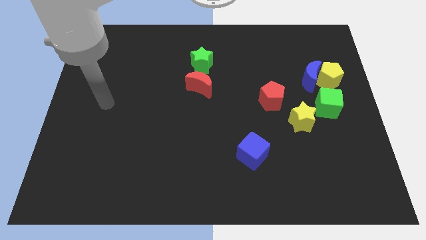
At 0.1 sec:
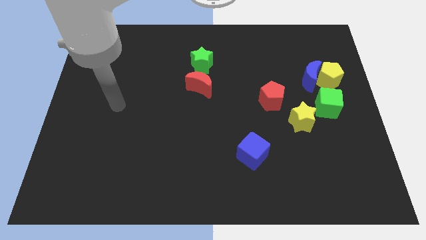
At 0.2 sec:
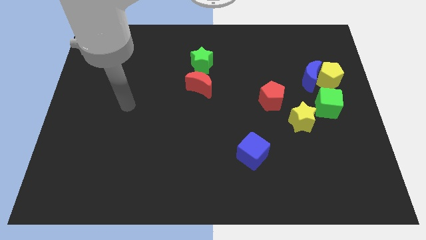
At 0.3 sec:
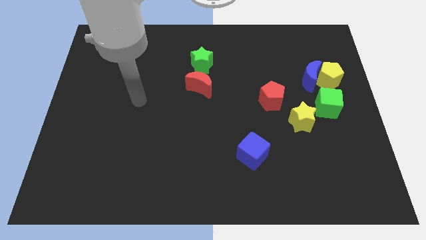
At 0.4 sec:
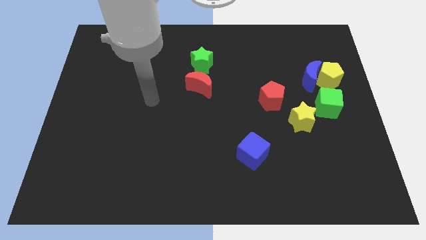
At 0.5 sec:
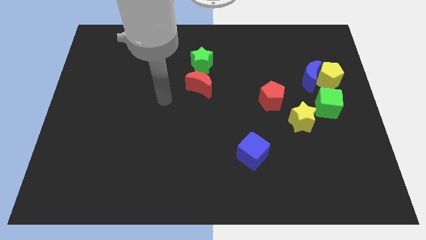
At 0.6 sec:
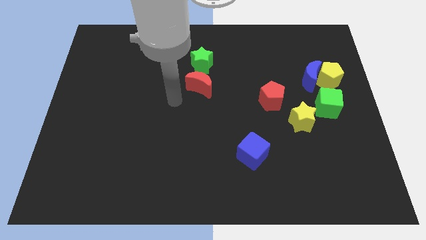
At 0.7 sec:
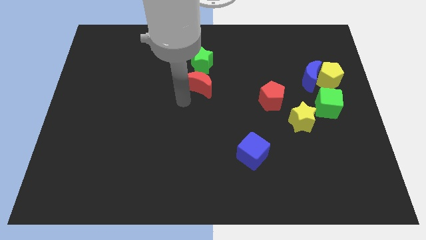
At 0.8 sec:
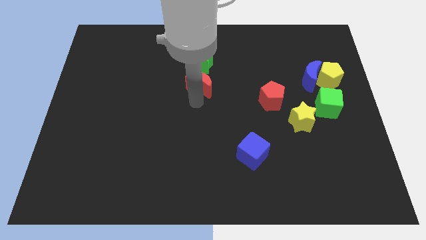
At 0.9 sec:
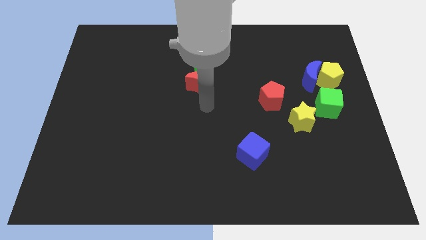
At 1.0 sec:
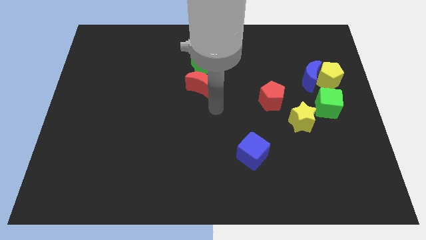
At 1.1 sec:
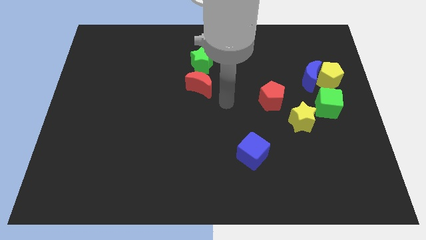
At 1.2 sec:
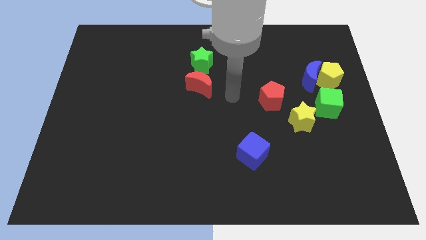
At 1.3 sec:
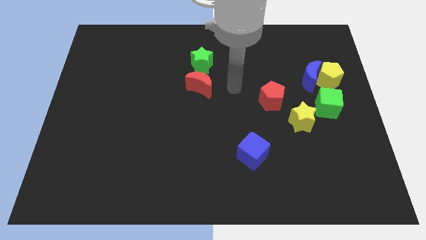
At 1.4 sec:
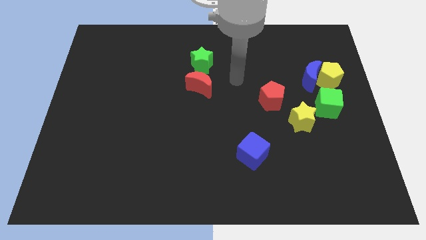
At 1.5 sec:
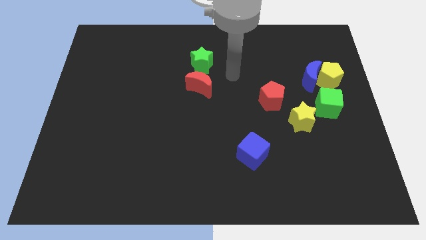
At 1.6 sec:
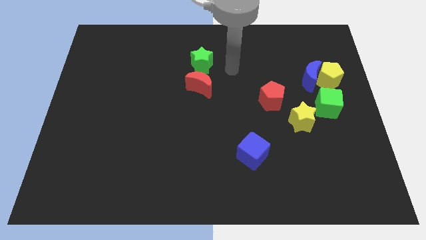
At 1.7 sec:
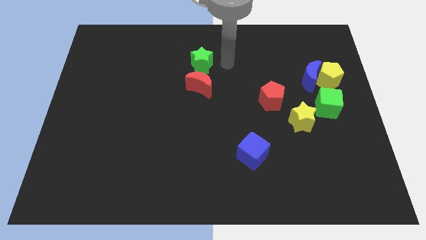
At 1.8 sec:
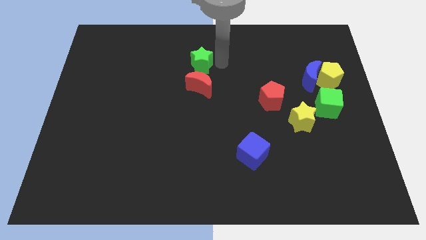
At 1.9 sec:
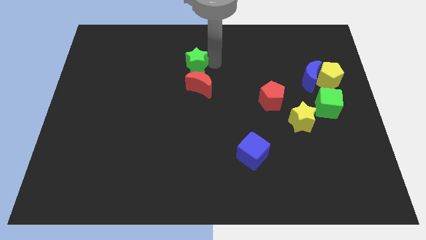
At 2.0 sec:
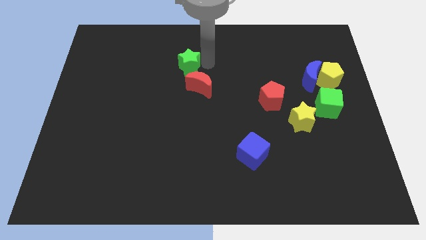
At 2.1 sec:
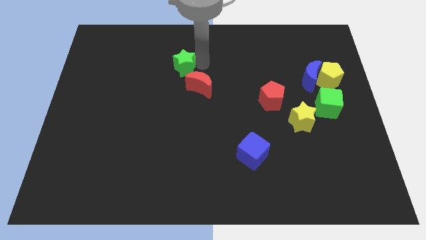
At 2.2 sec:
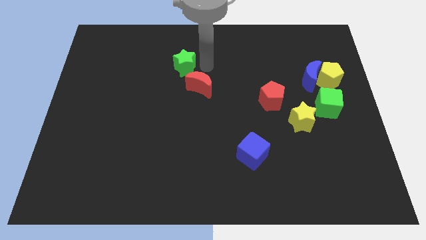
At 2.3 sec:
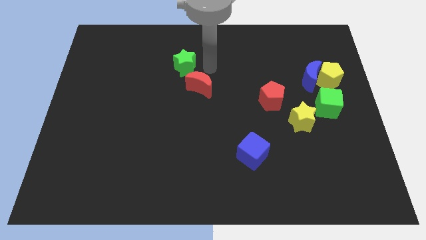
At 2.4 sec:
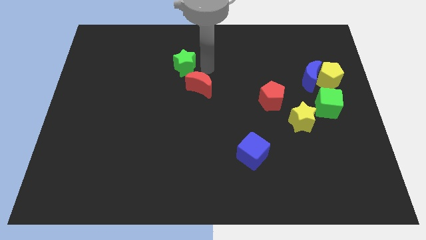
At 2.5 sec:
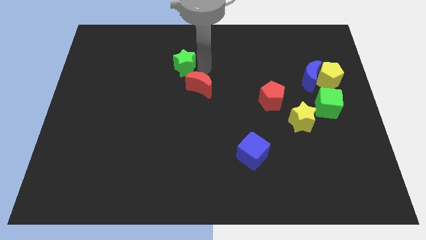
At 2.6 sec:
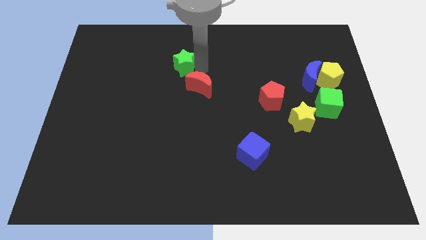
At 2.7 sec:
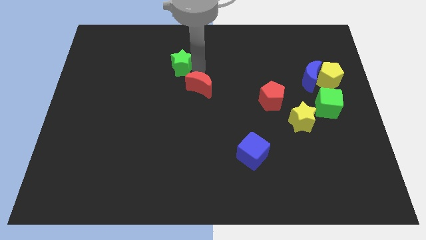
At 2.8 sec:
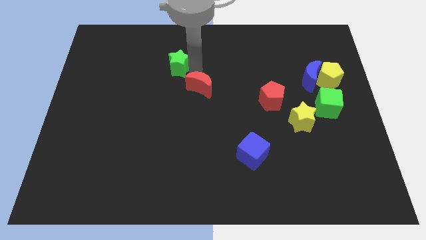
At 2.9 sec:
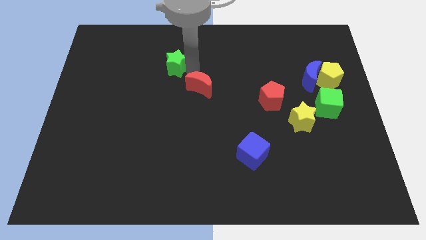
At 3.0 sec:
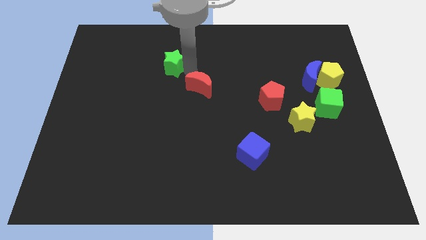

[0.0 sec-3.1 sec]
move the green star left slightly

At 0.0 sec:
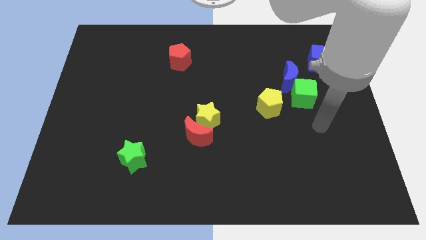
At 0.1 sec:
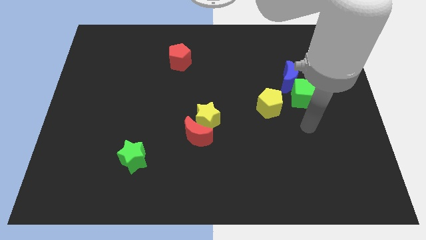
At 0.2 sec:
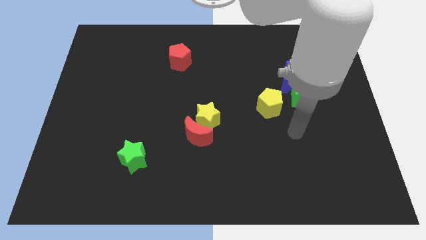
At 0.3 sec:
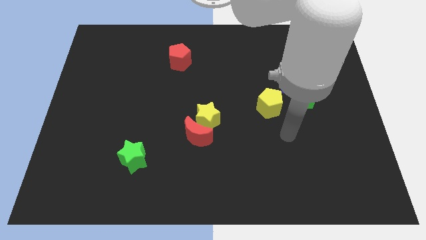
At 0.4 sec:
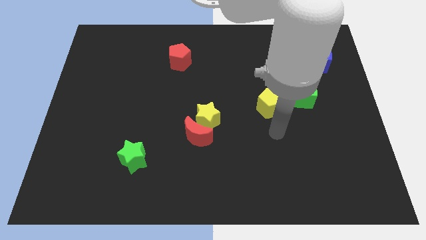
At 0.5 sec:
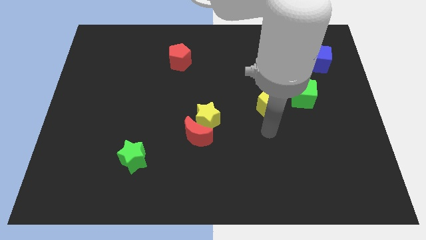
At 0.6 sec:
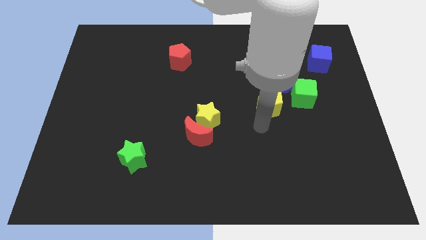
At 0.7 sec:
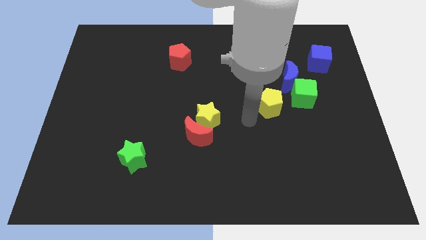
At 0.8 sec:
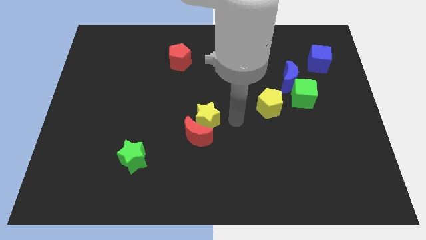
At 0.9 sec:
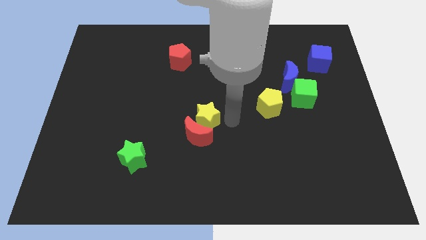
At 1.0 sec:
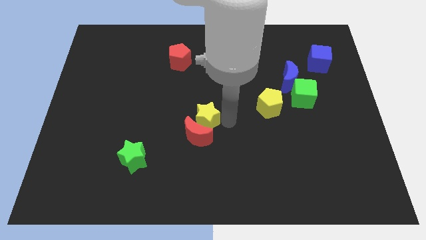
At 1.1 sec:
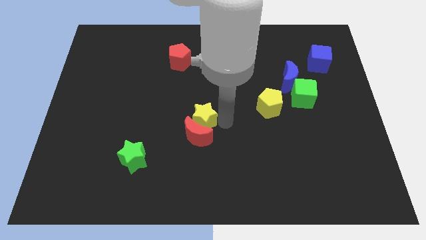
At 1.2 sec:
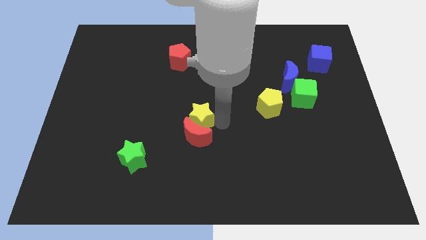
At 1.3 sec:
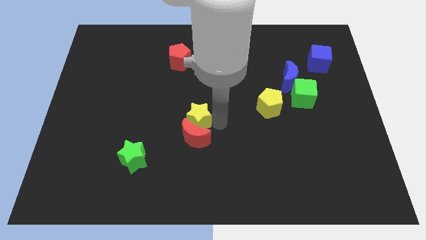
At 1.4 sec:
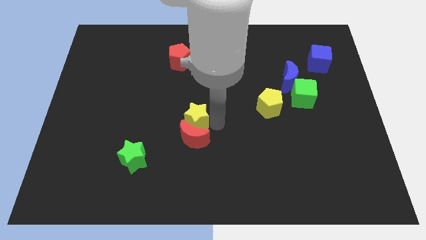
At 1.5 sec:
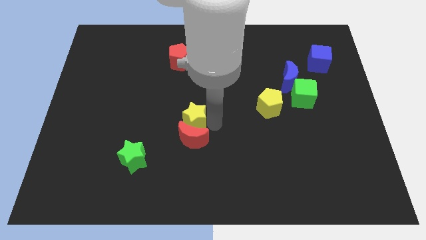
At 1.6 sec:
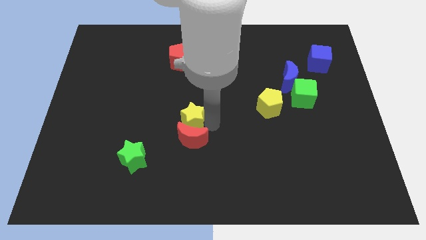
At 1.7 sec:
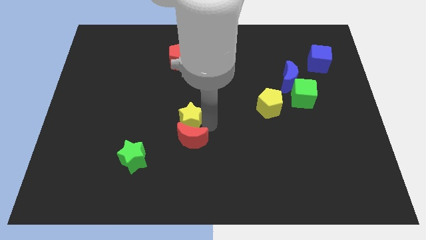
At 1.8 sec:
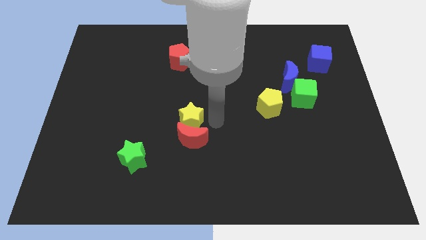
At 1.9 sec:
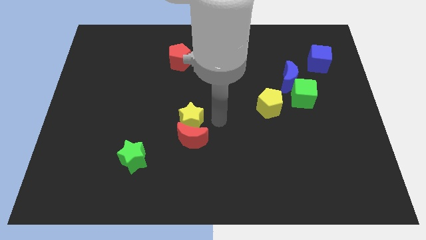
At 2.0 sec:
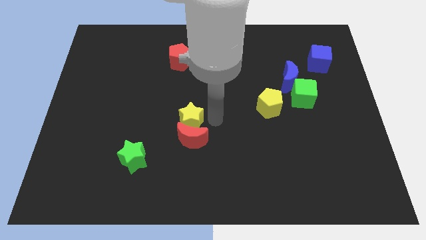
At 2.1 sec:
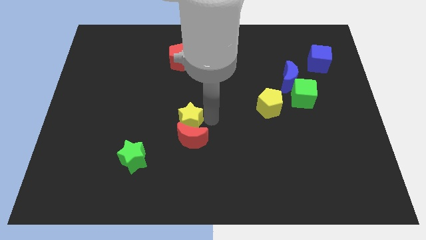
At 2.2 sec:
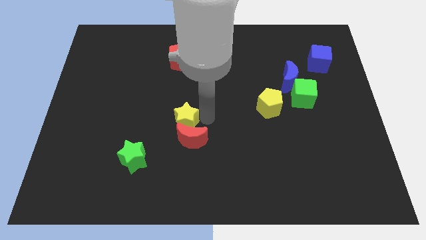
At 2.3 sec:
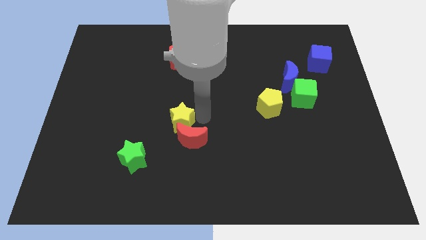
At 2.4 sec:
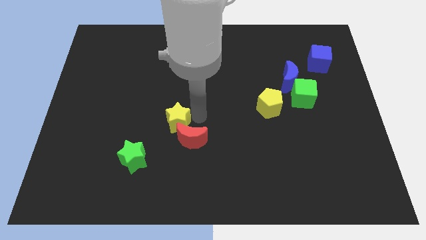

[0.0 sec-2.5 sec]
slide the yellow star a little bit left

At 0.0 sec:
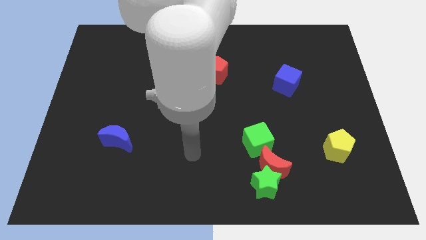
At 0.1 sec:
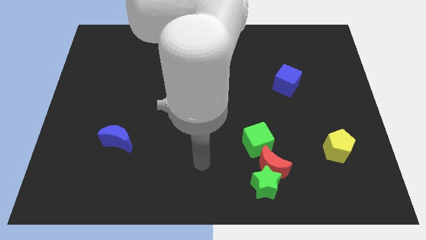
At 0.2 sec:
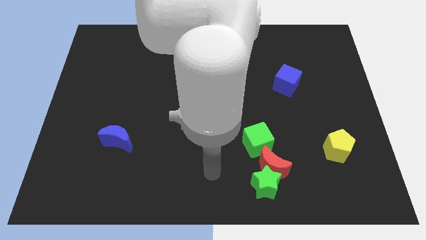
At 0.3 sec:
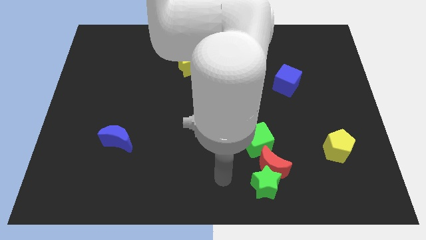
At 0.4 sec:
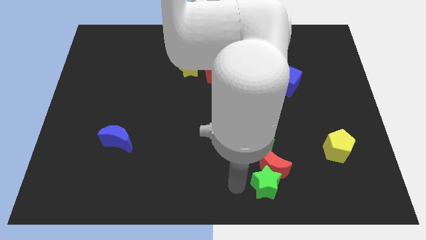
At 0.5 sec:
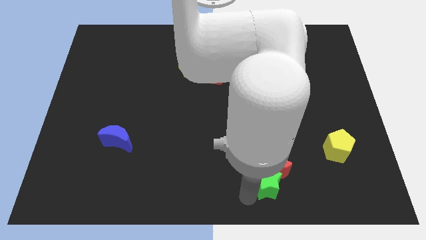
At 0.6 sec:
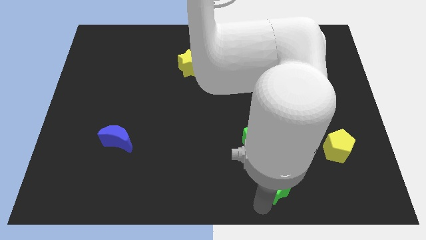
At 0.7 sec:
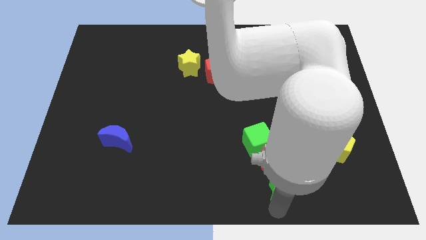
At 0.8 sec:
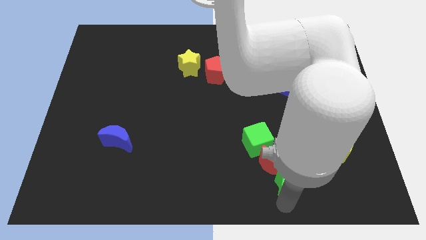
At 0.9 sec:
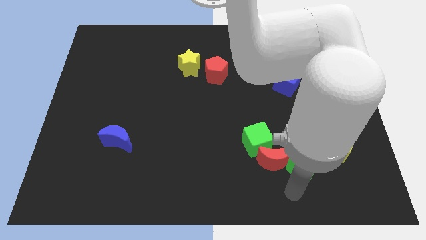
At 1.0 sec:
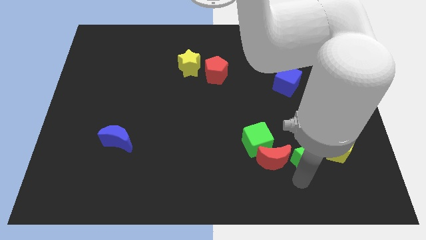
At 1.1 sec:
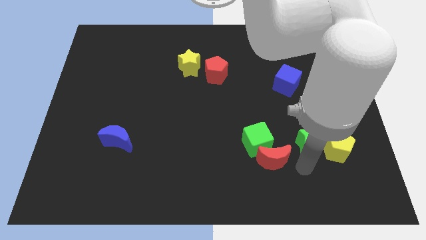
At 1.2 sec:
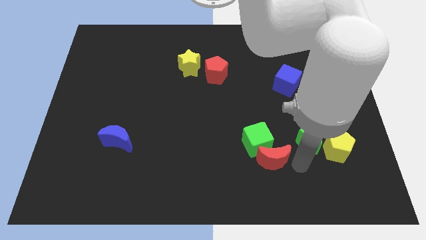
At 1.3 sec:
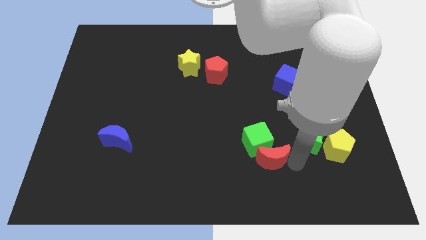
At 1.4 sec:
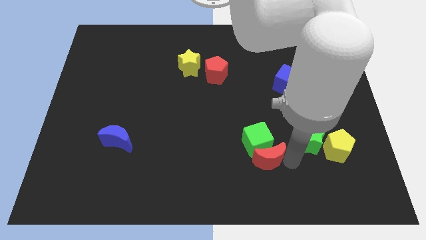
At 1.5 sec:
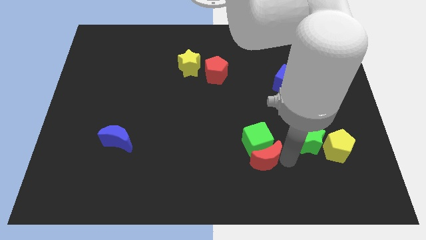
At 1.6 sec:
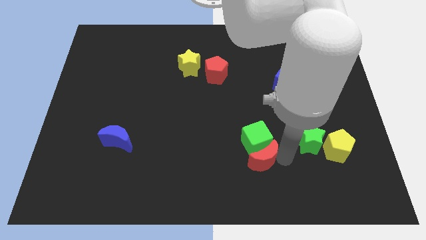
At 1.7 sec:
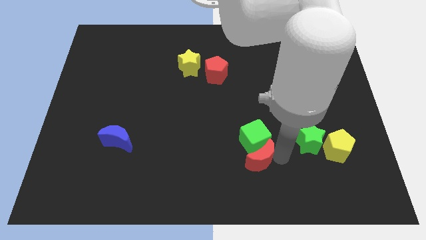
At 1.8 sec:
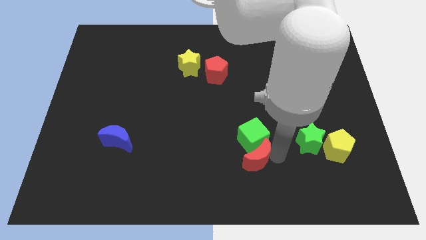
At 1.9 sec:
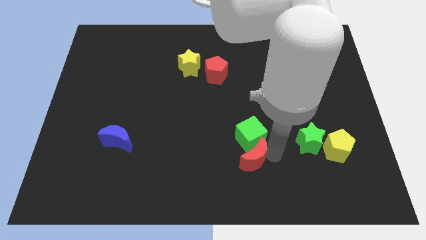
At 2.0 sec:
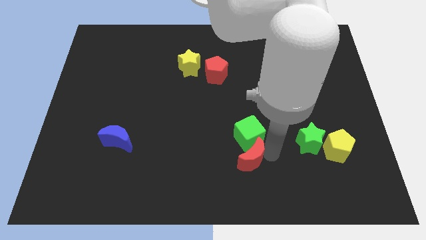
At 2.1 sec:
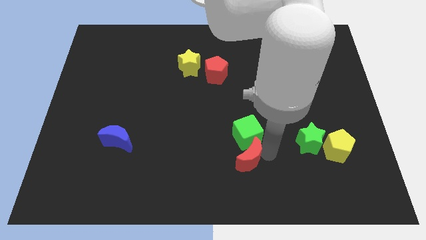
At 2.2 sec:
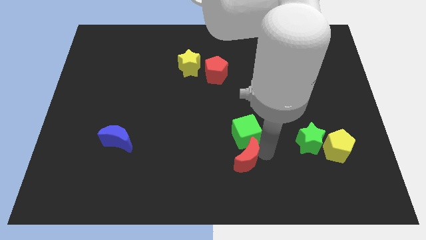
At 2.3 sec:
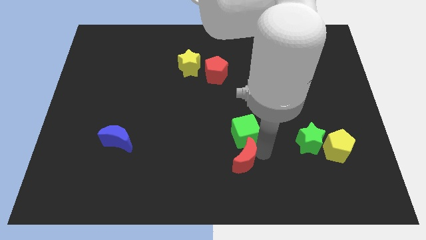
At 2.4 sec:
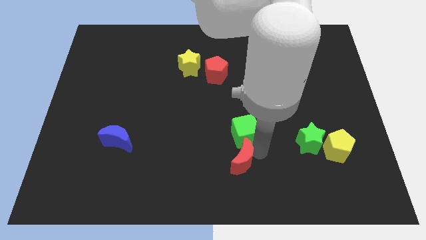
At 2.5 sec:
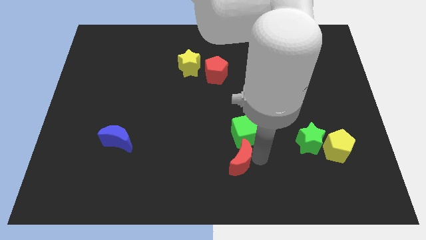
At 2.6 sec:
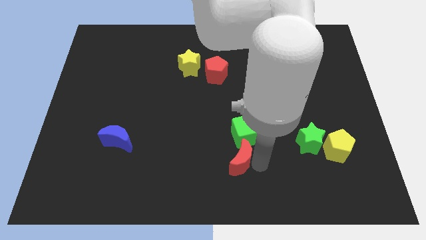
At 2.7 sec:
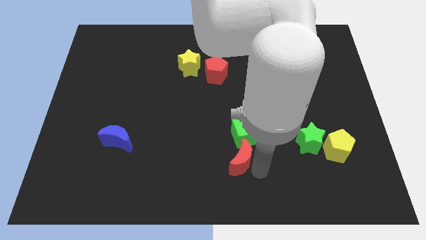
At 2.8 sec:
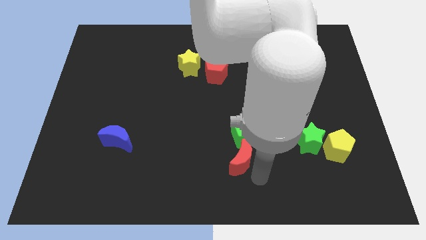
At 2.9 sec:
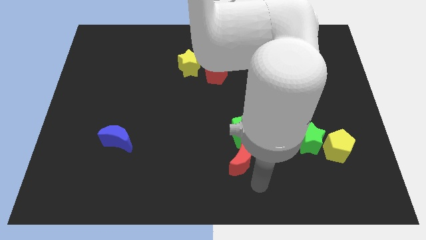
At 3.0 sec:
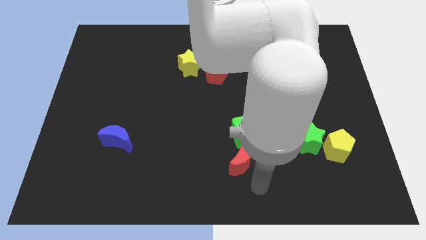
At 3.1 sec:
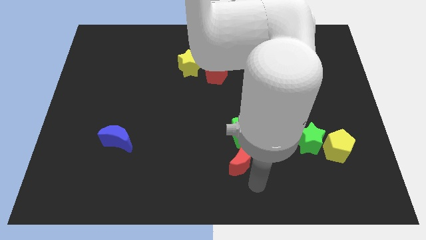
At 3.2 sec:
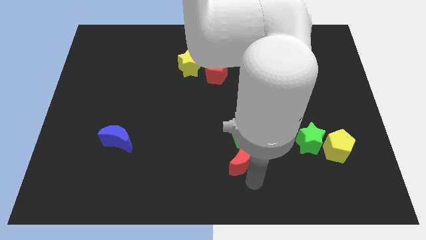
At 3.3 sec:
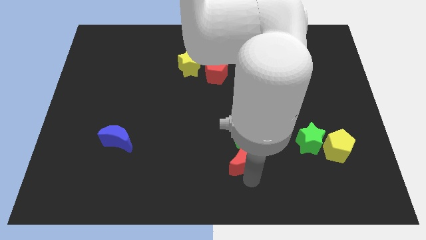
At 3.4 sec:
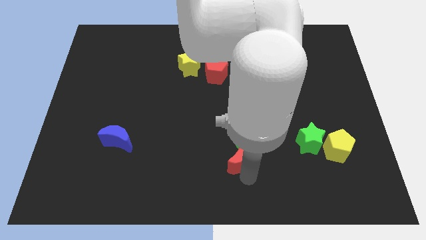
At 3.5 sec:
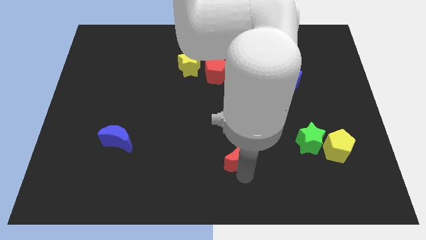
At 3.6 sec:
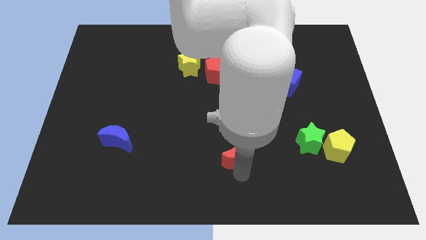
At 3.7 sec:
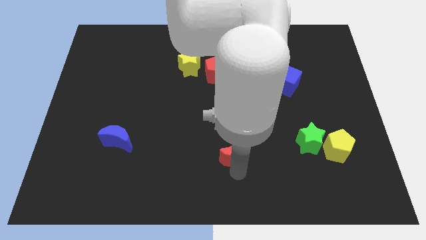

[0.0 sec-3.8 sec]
slightly push the red moon up and to the left
